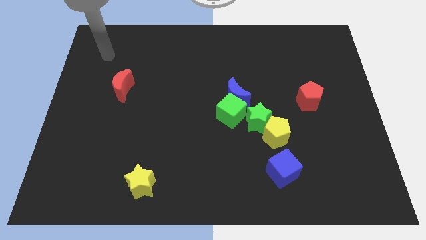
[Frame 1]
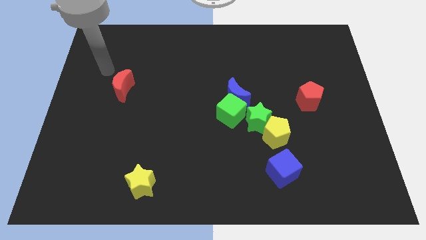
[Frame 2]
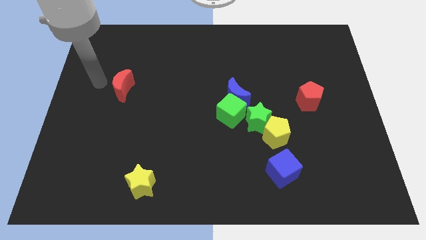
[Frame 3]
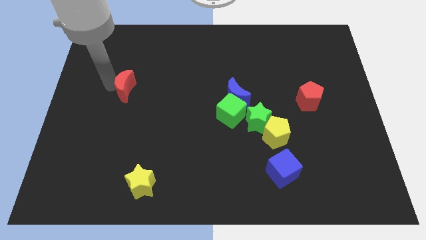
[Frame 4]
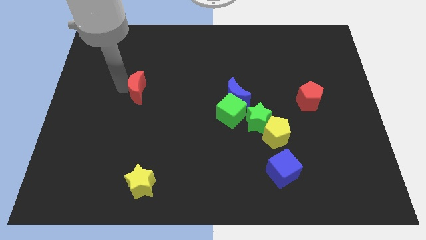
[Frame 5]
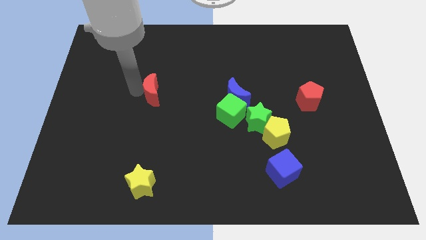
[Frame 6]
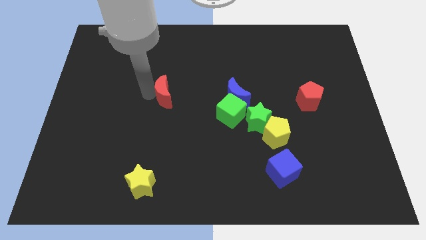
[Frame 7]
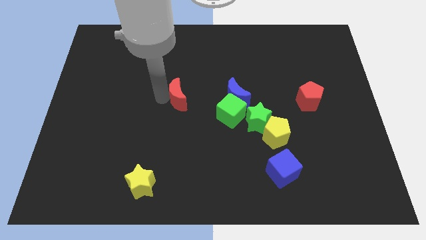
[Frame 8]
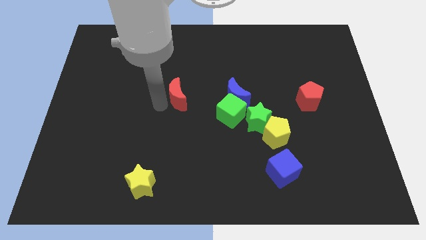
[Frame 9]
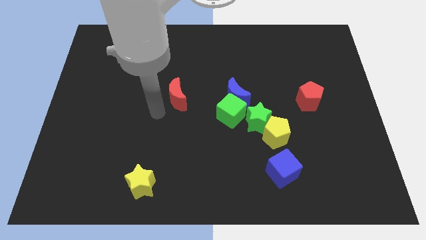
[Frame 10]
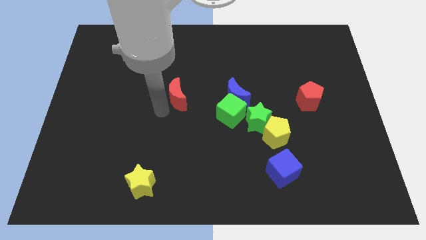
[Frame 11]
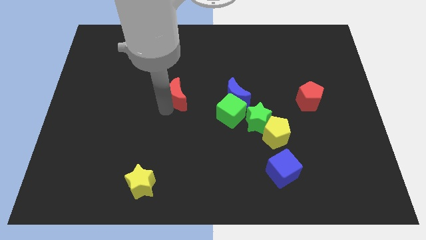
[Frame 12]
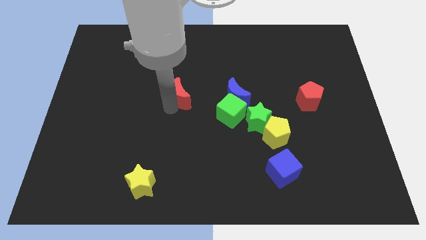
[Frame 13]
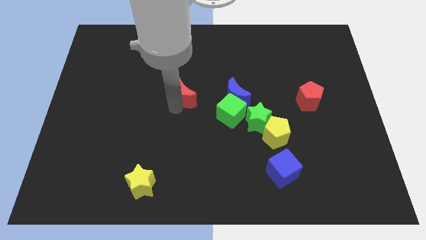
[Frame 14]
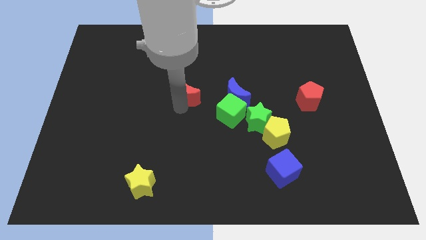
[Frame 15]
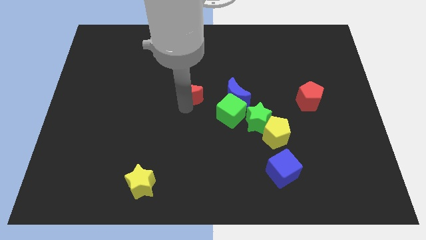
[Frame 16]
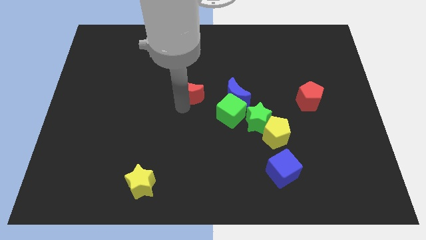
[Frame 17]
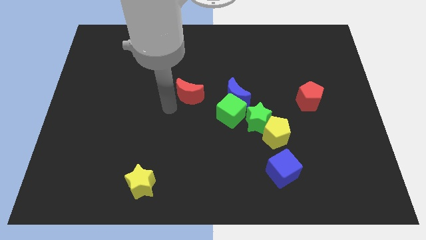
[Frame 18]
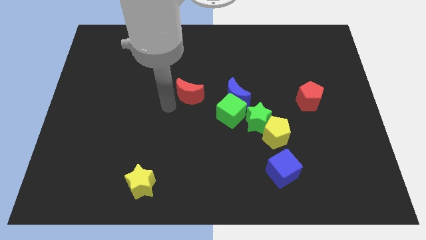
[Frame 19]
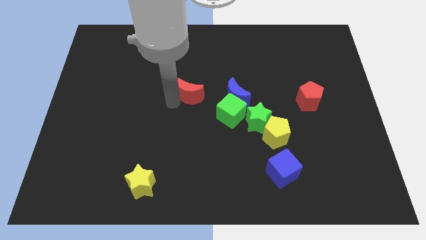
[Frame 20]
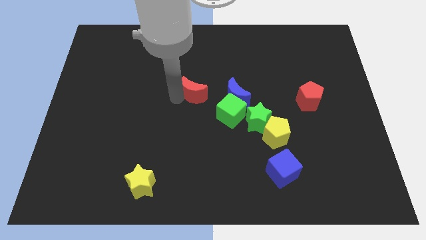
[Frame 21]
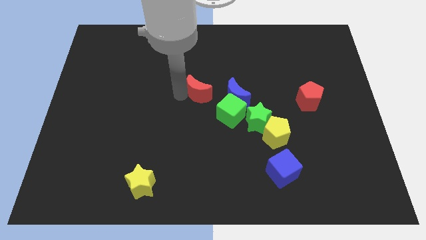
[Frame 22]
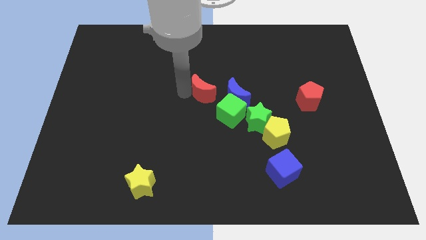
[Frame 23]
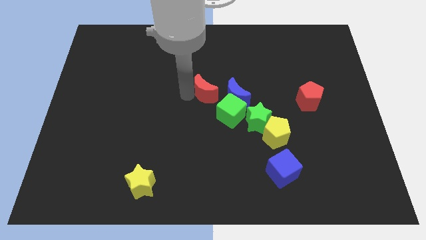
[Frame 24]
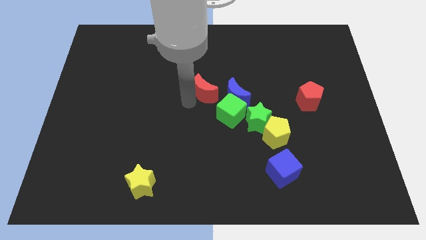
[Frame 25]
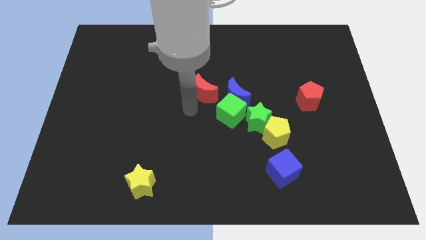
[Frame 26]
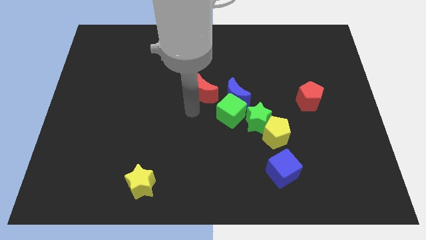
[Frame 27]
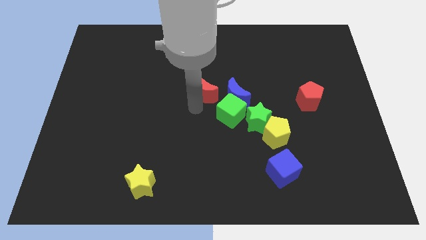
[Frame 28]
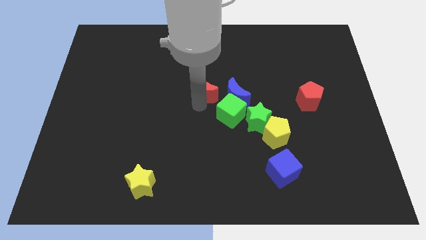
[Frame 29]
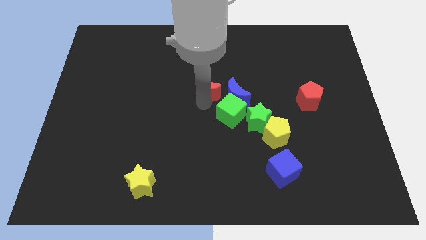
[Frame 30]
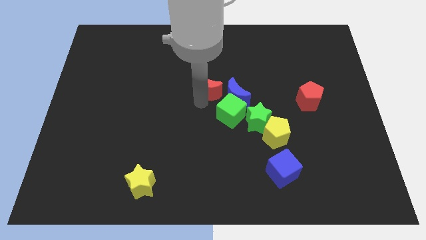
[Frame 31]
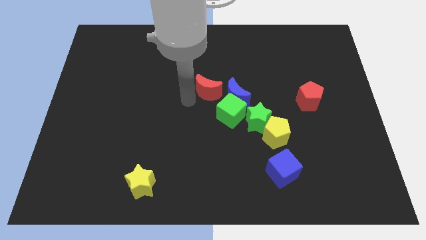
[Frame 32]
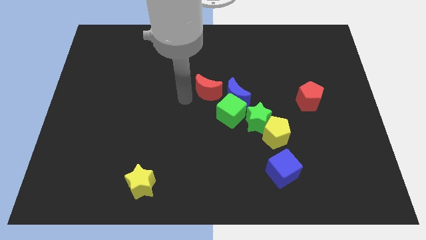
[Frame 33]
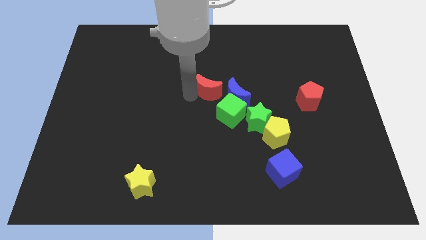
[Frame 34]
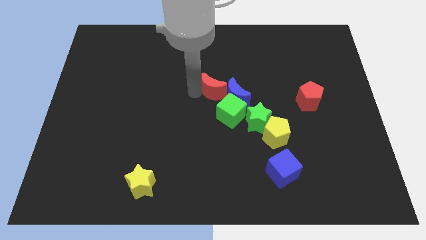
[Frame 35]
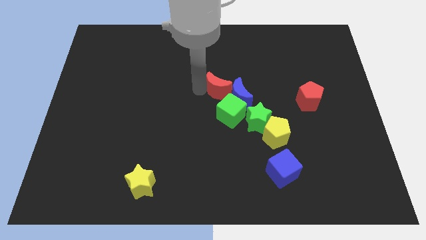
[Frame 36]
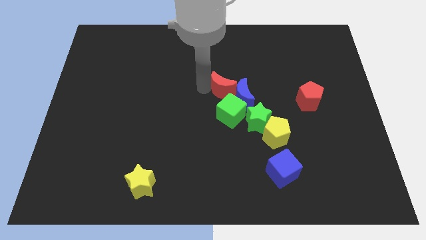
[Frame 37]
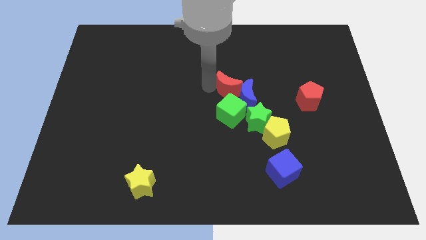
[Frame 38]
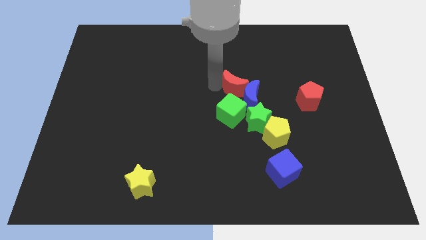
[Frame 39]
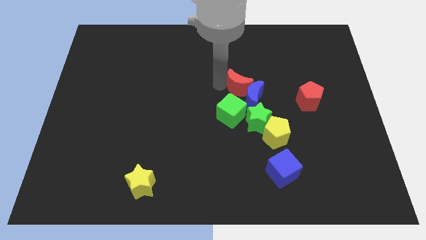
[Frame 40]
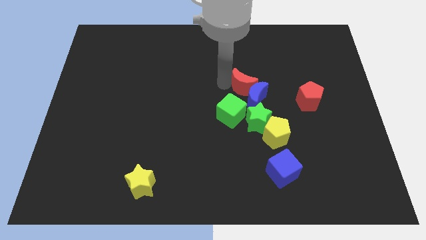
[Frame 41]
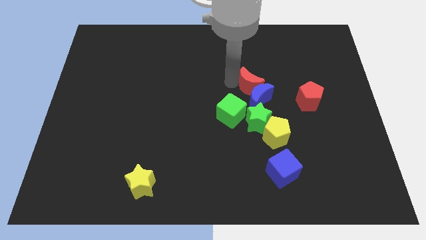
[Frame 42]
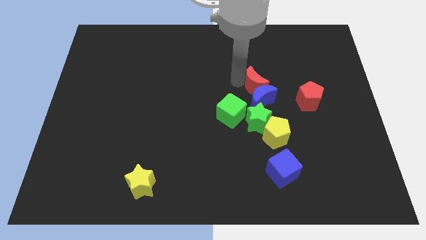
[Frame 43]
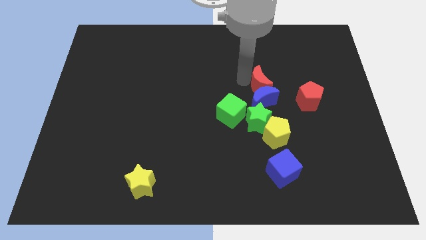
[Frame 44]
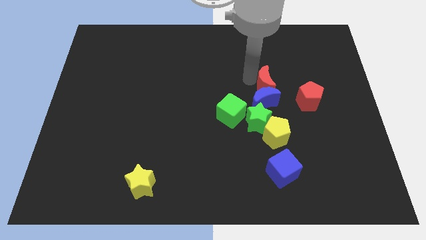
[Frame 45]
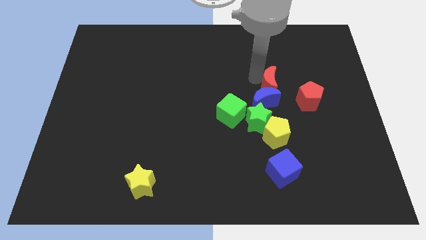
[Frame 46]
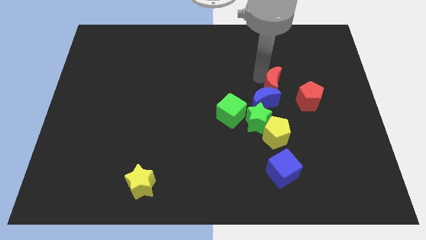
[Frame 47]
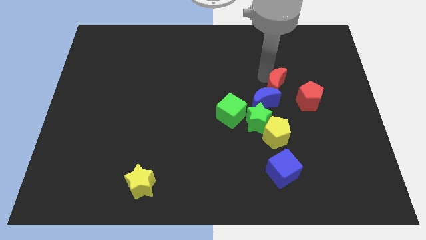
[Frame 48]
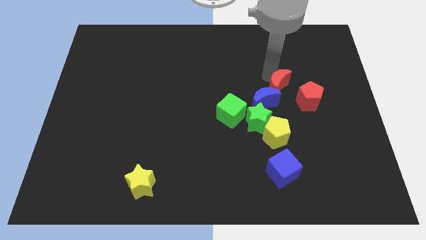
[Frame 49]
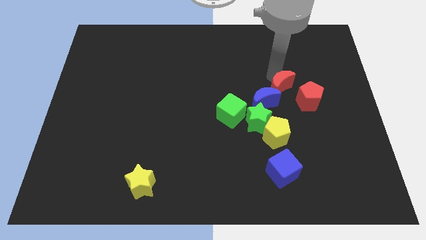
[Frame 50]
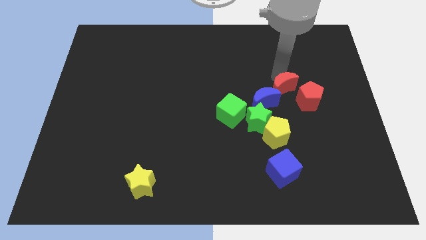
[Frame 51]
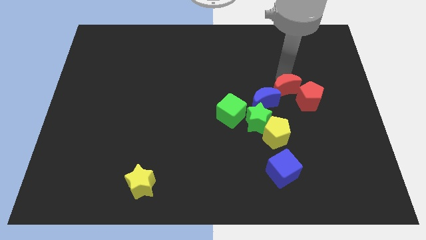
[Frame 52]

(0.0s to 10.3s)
push the red moon next to the red pentagon

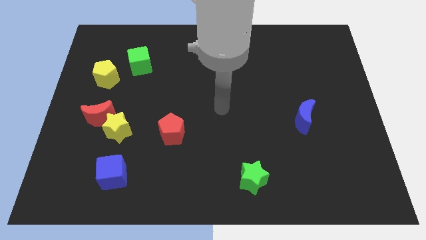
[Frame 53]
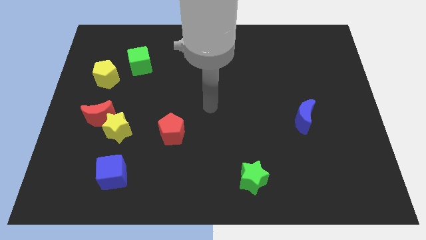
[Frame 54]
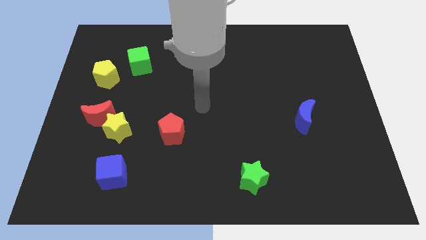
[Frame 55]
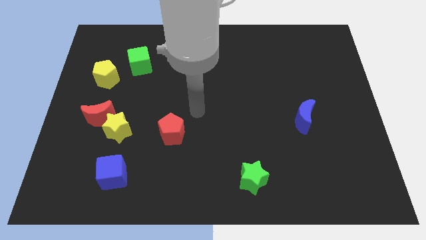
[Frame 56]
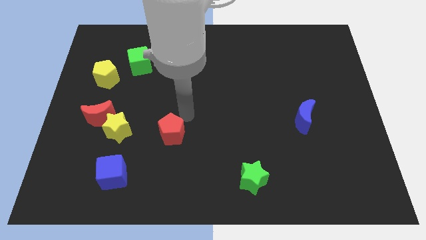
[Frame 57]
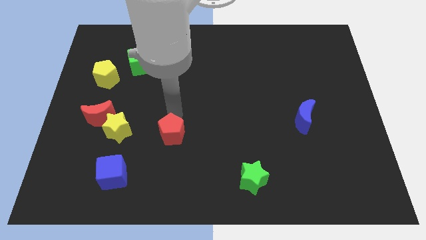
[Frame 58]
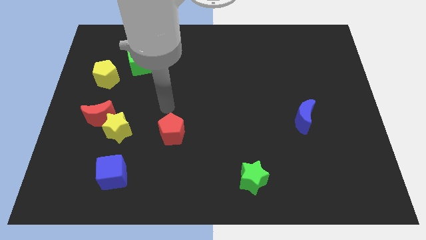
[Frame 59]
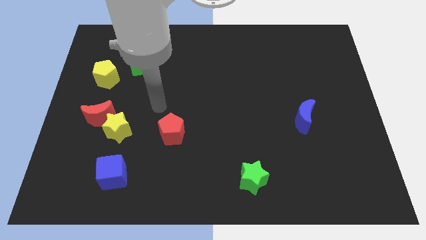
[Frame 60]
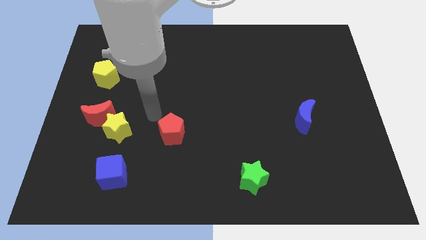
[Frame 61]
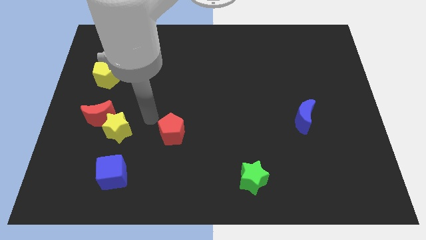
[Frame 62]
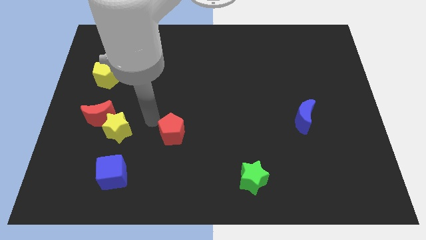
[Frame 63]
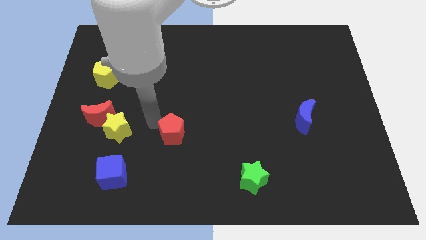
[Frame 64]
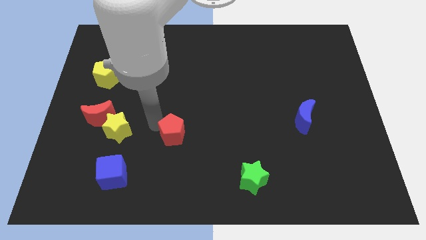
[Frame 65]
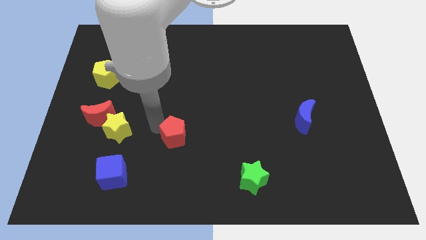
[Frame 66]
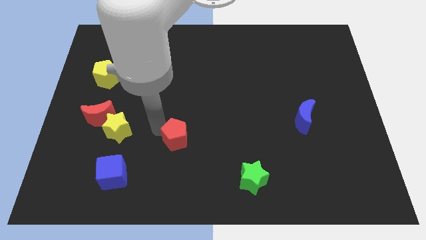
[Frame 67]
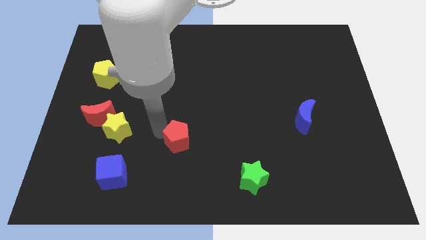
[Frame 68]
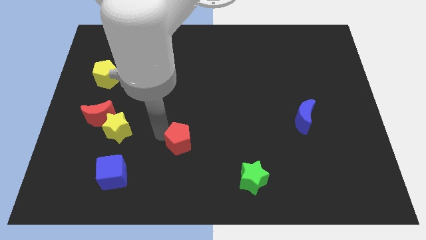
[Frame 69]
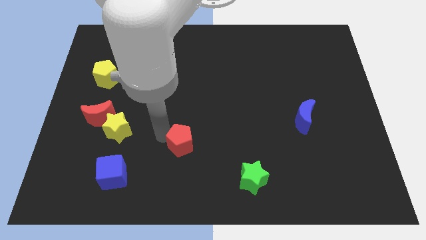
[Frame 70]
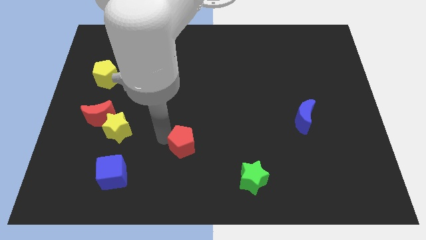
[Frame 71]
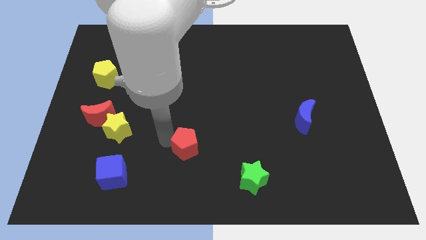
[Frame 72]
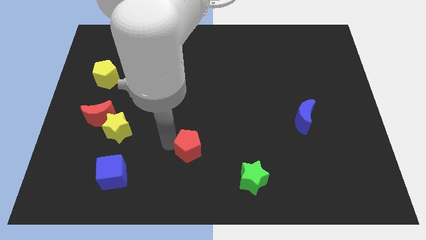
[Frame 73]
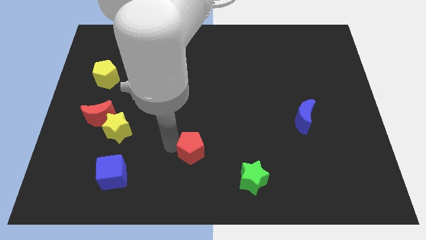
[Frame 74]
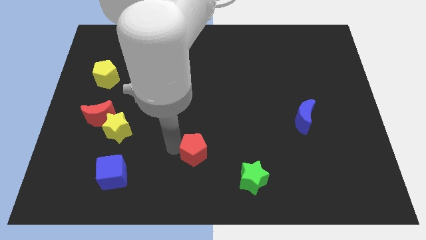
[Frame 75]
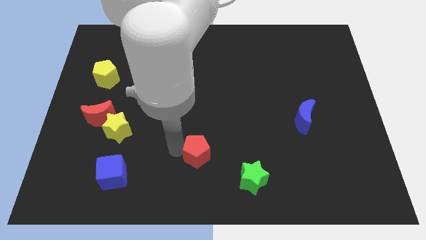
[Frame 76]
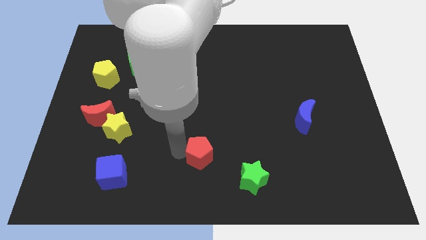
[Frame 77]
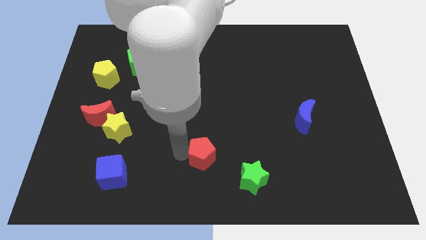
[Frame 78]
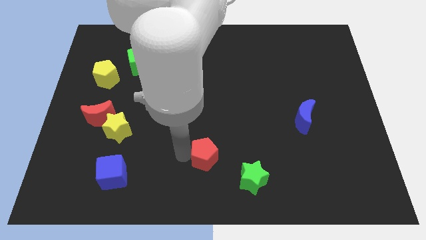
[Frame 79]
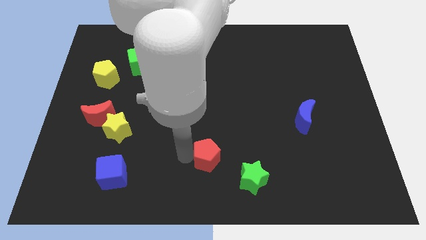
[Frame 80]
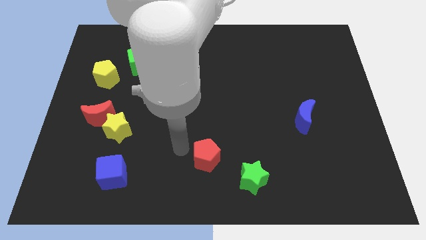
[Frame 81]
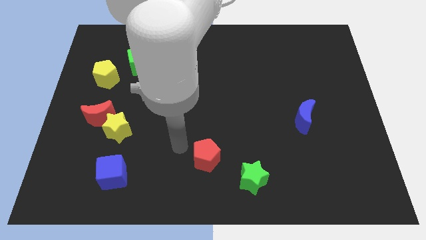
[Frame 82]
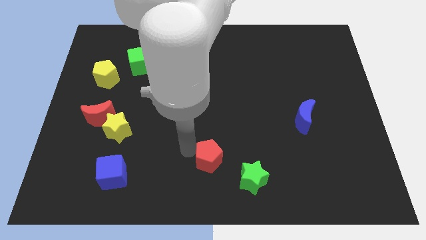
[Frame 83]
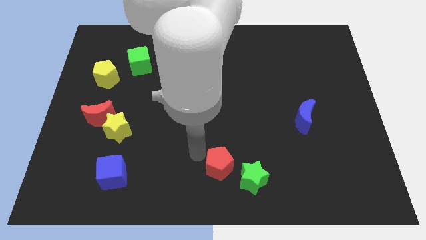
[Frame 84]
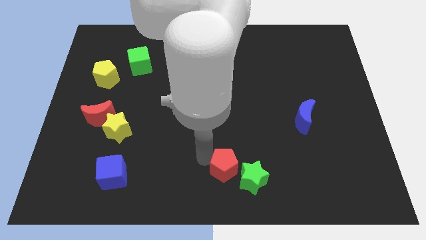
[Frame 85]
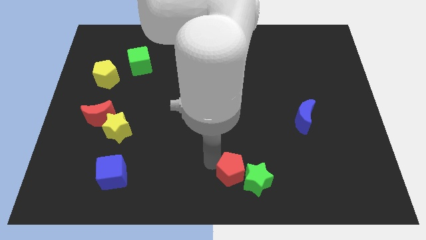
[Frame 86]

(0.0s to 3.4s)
slide the red pentagon to the green star
